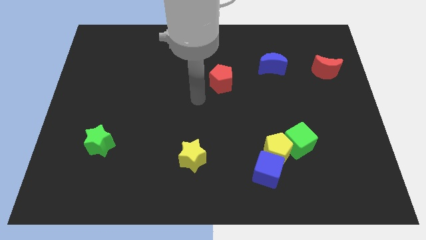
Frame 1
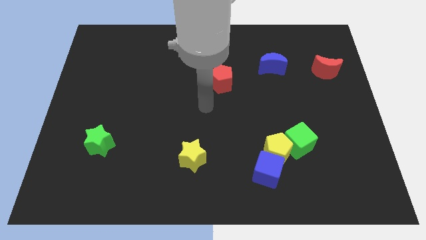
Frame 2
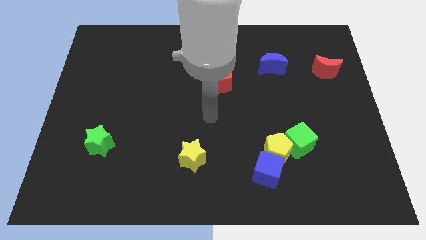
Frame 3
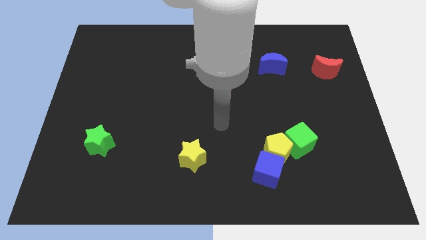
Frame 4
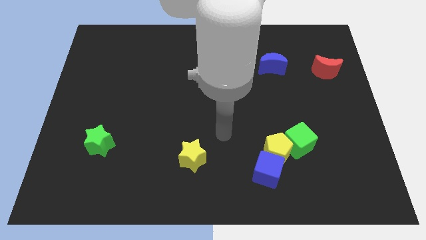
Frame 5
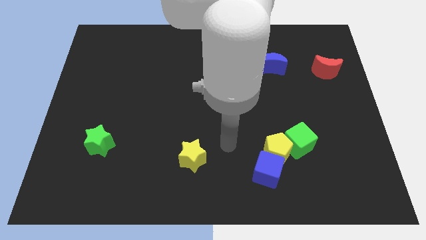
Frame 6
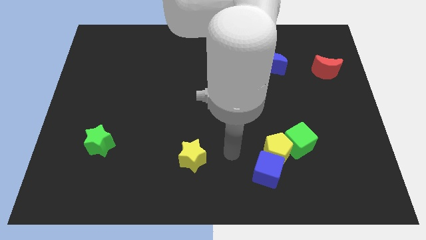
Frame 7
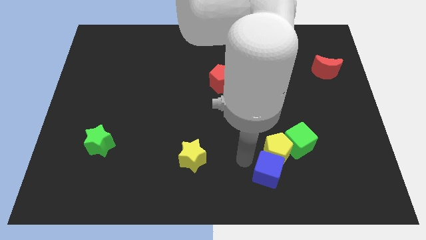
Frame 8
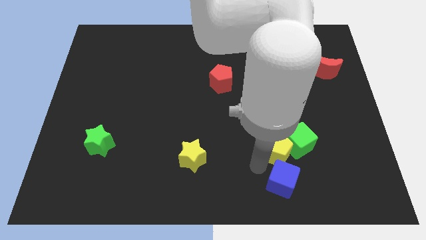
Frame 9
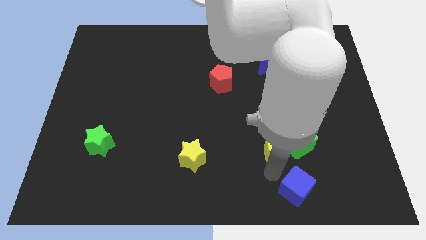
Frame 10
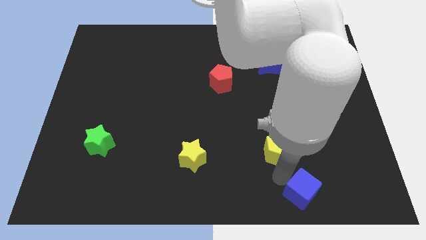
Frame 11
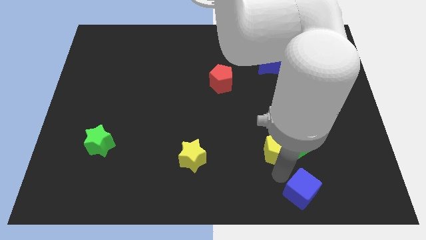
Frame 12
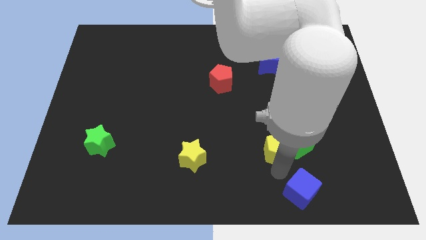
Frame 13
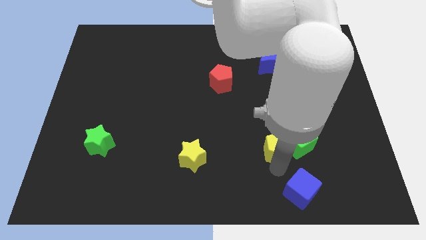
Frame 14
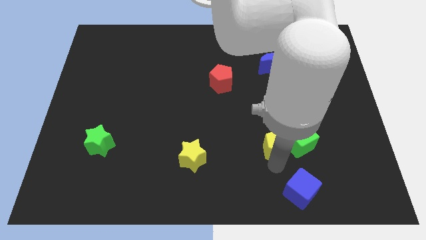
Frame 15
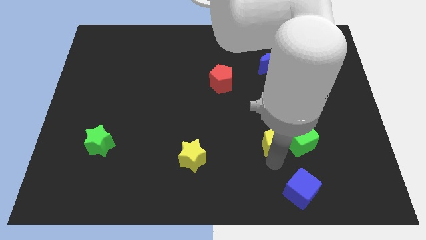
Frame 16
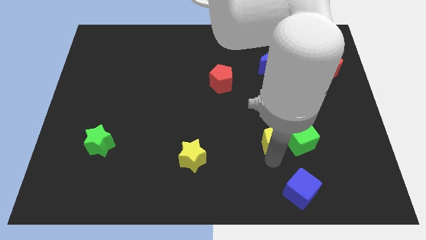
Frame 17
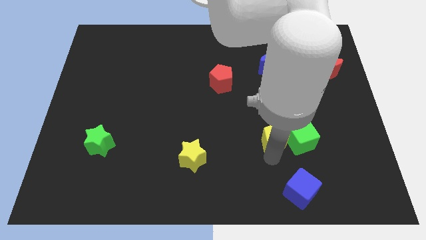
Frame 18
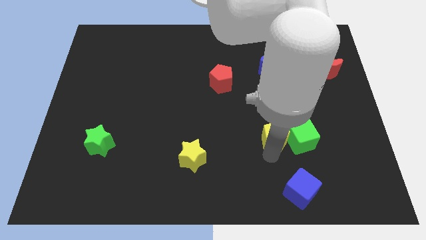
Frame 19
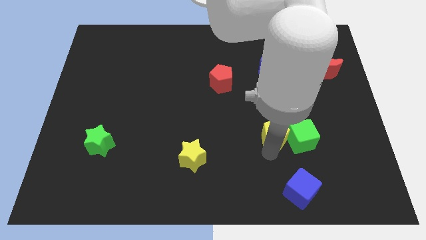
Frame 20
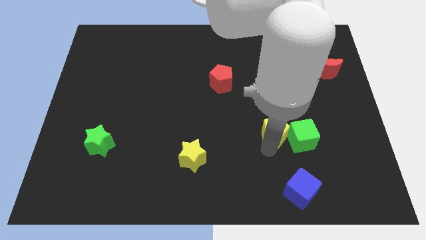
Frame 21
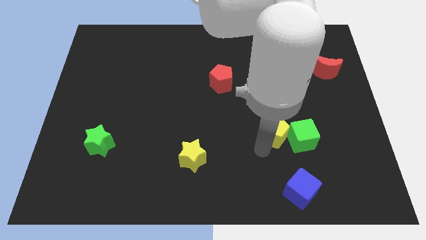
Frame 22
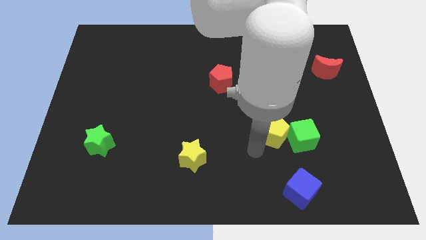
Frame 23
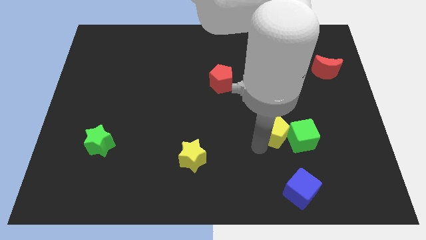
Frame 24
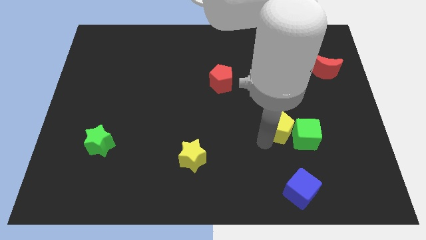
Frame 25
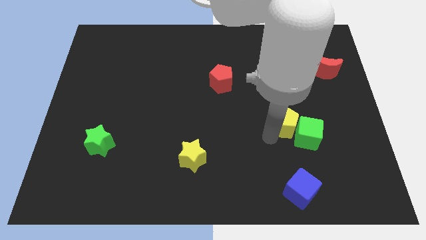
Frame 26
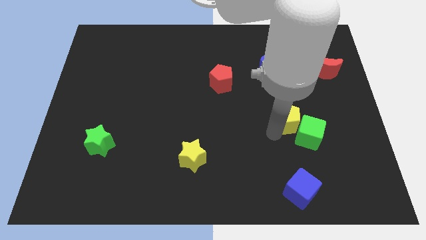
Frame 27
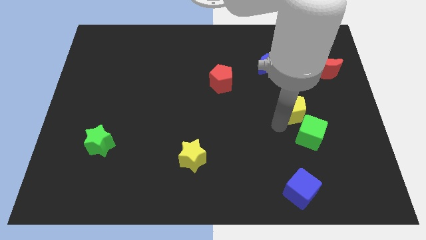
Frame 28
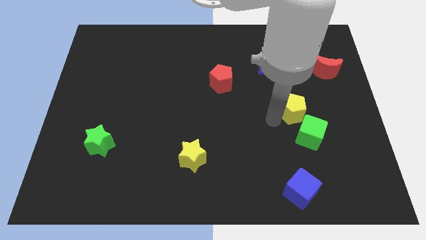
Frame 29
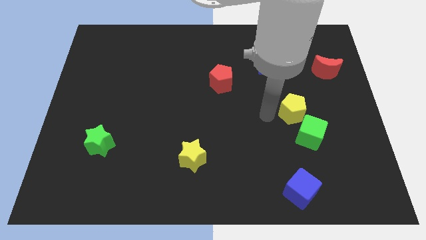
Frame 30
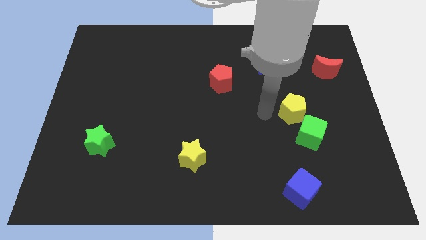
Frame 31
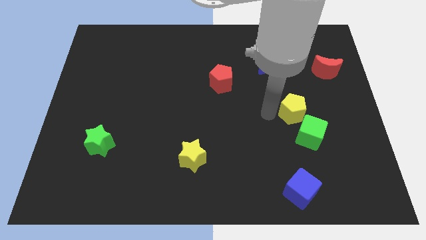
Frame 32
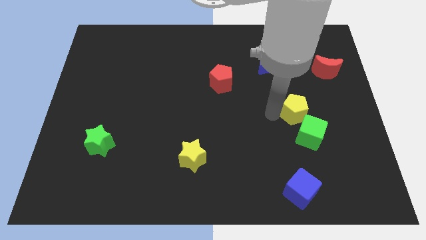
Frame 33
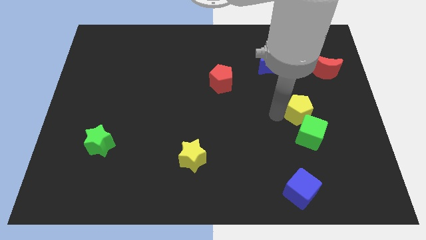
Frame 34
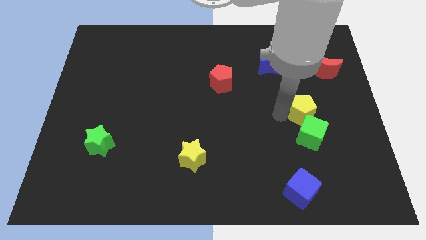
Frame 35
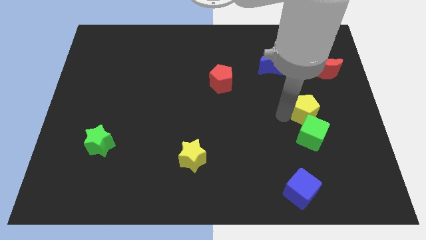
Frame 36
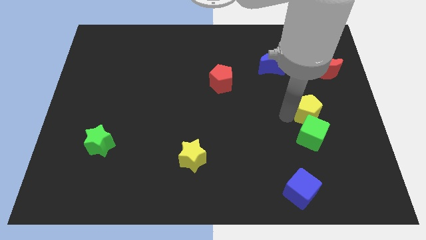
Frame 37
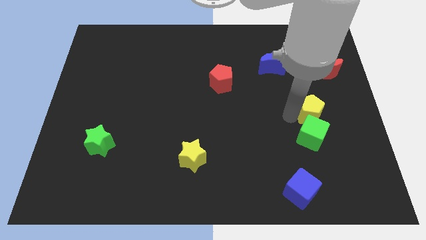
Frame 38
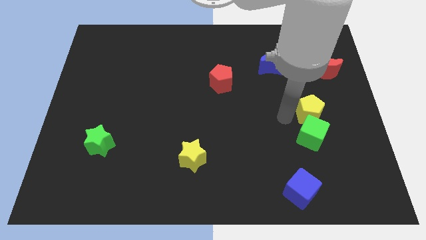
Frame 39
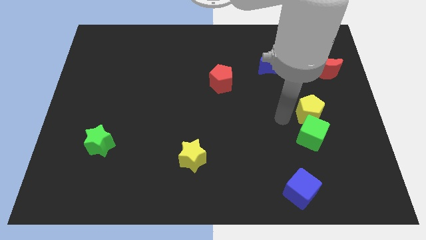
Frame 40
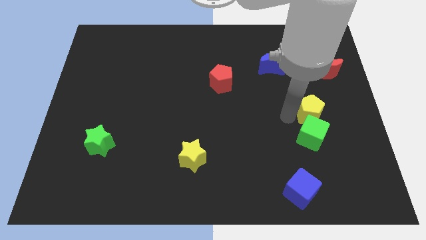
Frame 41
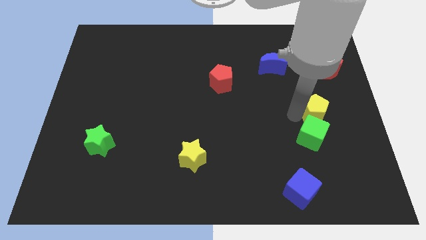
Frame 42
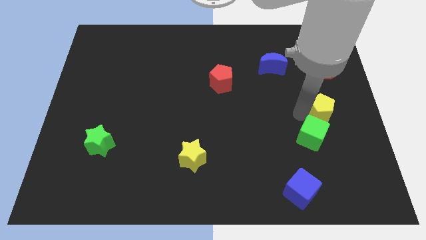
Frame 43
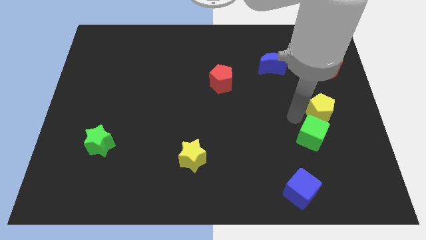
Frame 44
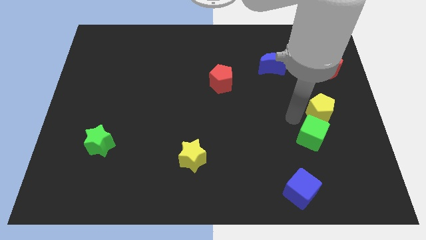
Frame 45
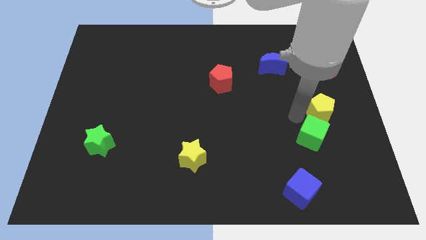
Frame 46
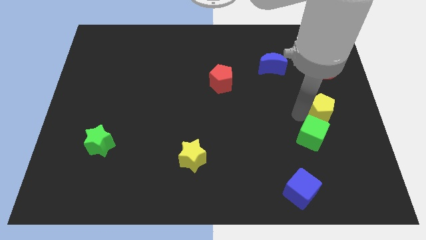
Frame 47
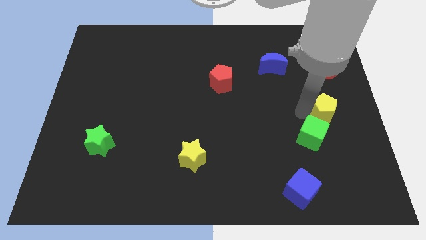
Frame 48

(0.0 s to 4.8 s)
push the yellow pentagon to the right side

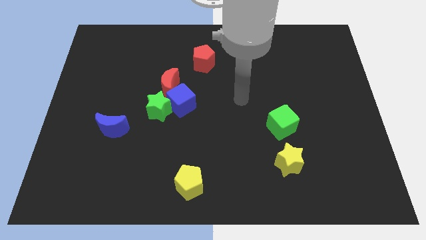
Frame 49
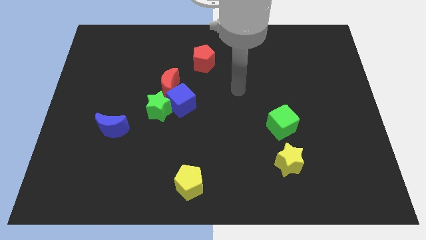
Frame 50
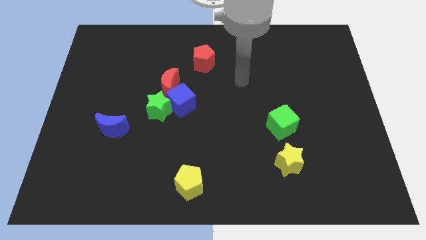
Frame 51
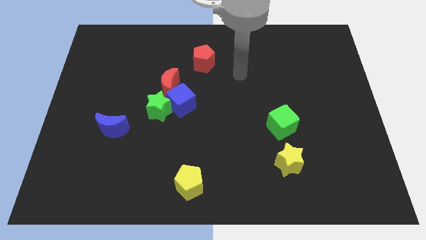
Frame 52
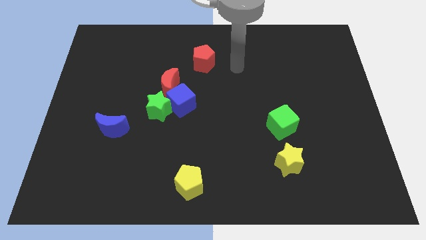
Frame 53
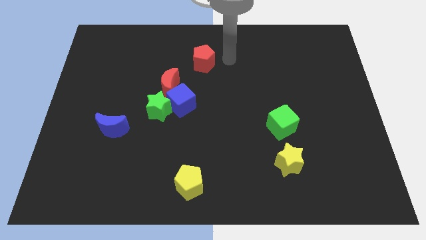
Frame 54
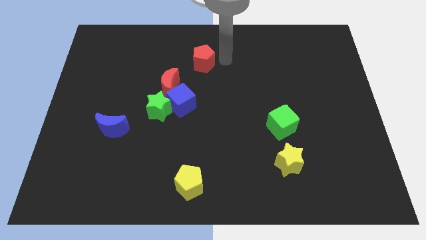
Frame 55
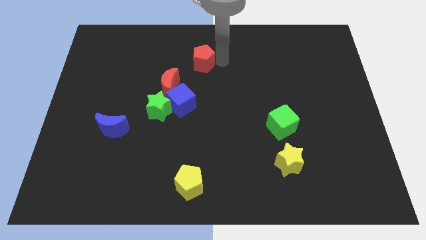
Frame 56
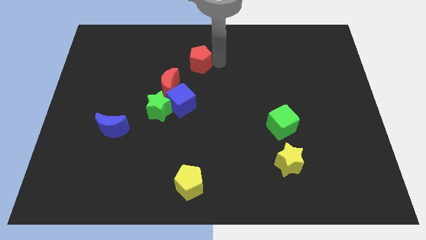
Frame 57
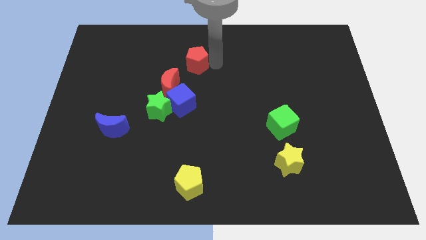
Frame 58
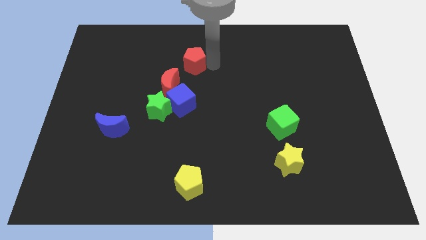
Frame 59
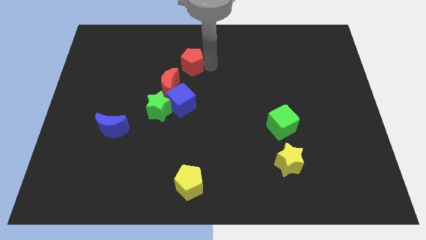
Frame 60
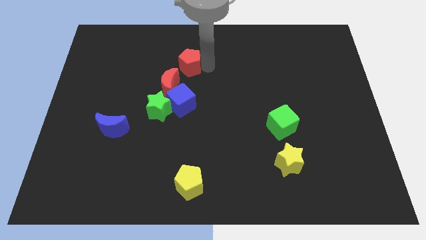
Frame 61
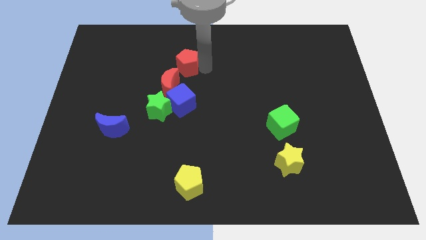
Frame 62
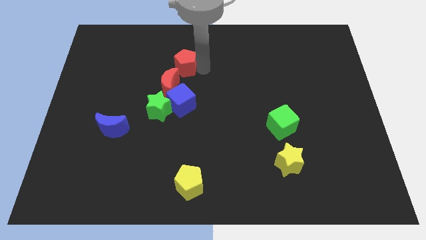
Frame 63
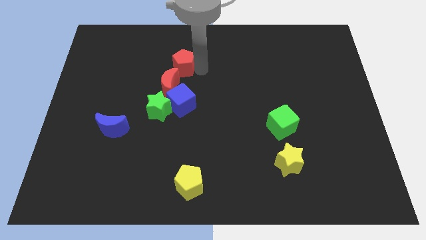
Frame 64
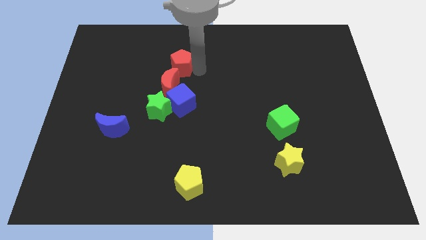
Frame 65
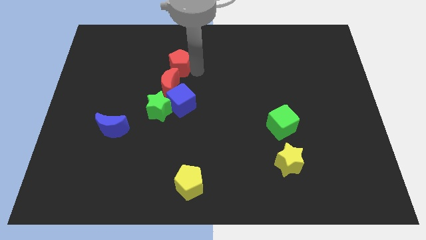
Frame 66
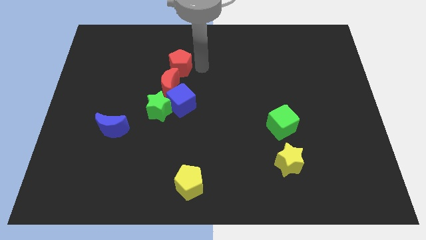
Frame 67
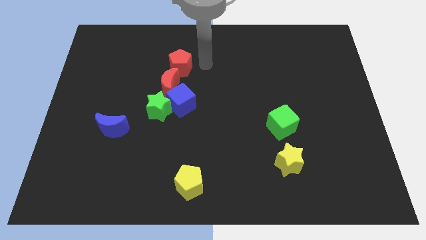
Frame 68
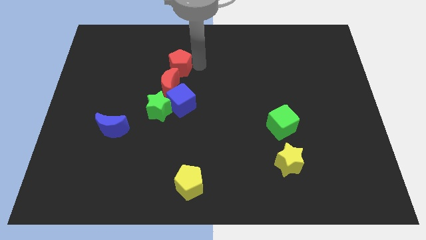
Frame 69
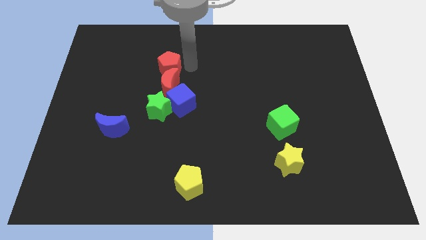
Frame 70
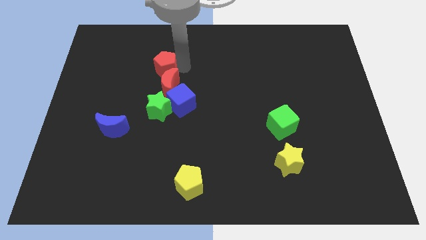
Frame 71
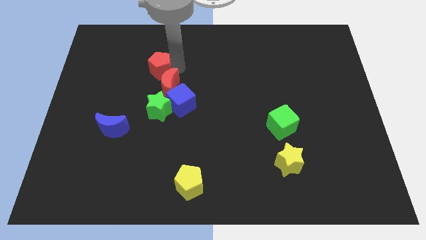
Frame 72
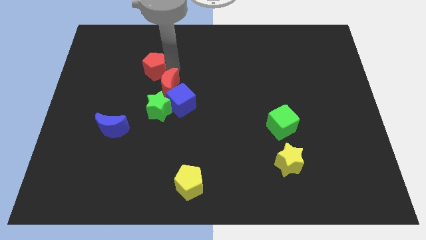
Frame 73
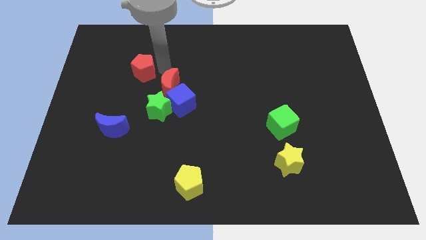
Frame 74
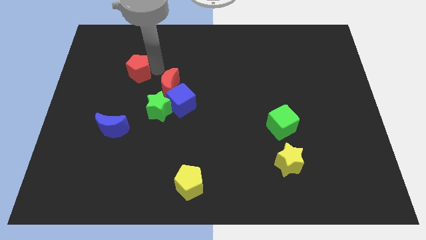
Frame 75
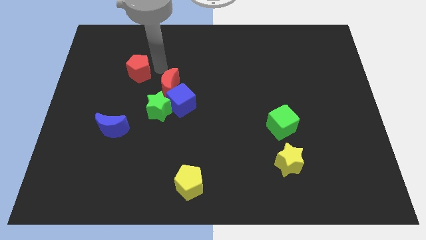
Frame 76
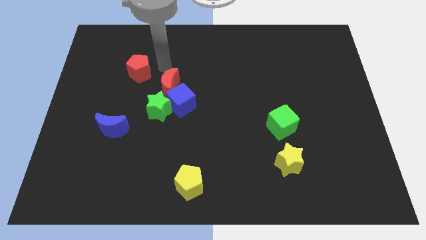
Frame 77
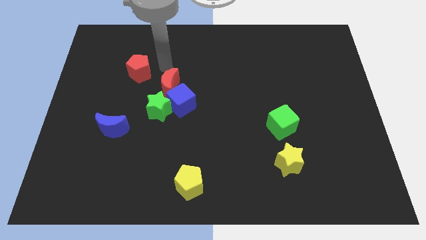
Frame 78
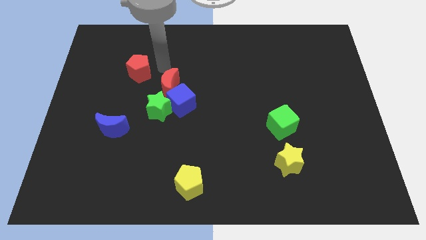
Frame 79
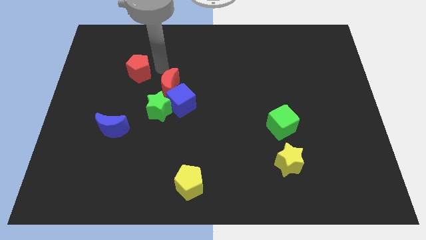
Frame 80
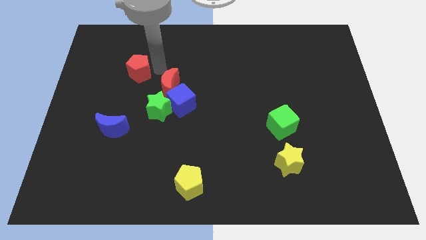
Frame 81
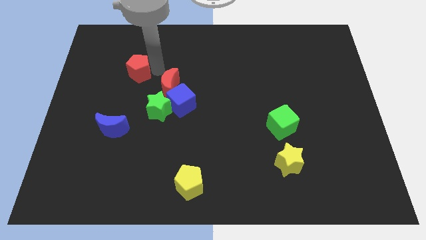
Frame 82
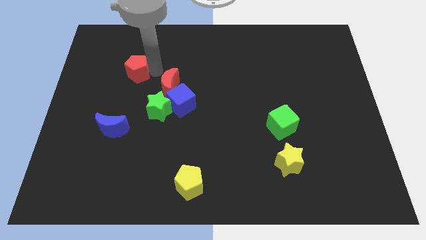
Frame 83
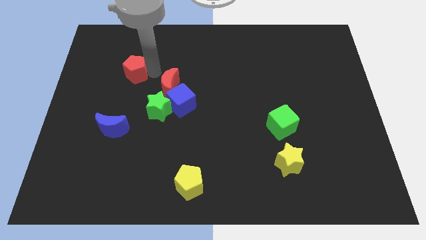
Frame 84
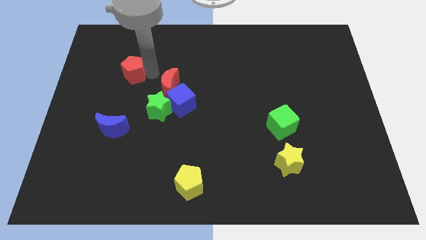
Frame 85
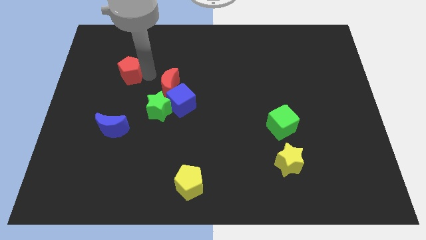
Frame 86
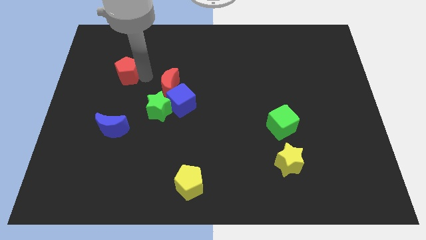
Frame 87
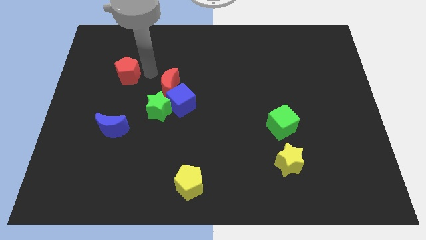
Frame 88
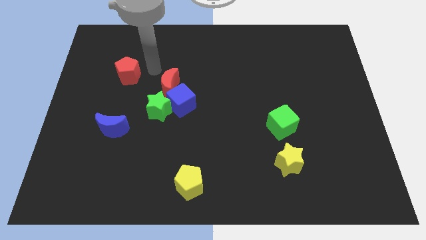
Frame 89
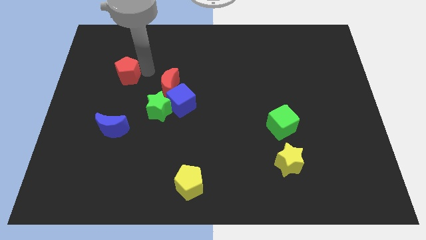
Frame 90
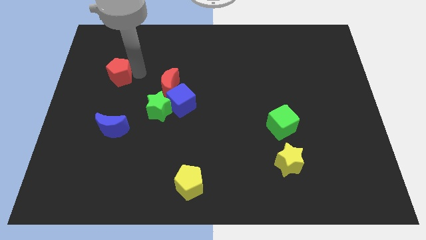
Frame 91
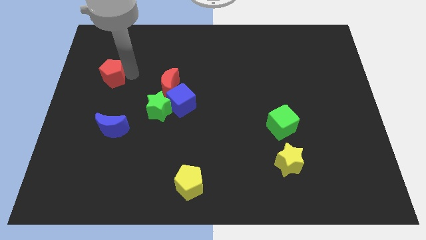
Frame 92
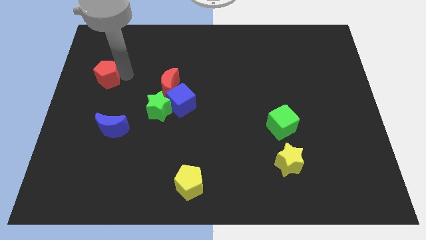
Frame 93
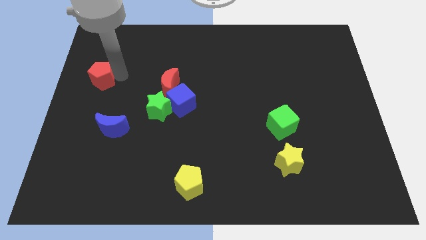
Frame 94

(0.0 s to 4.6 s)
put the red pentagon to the center left
